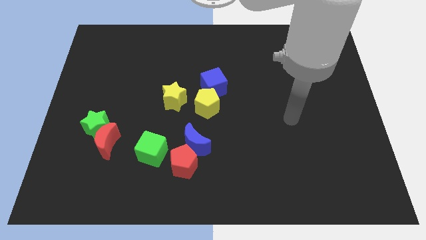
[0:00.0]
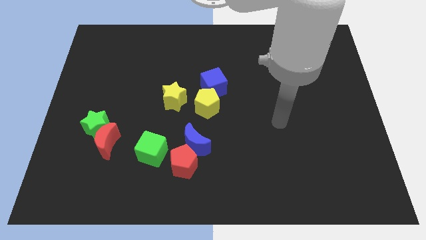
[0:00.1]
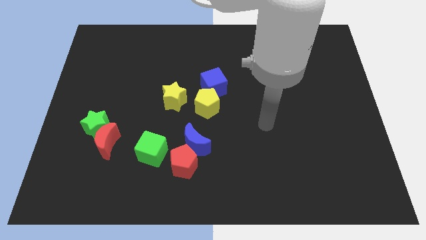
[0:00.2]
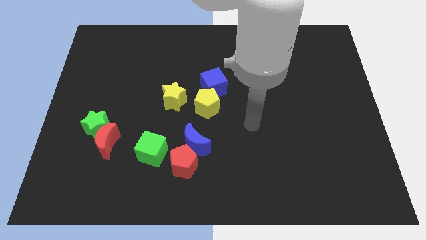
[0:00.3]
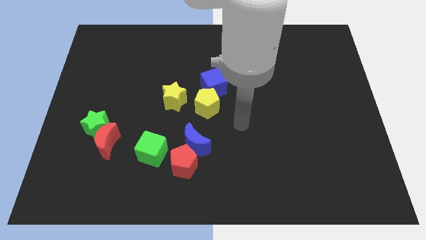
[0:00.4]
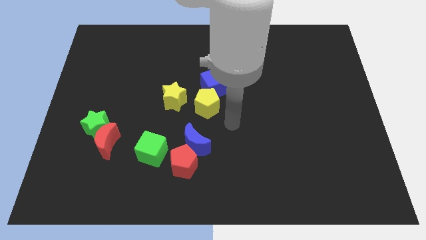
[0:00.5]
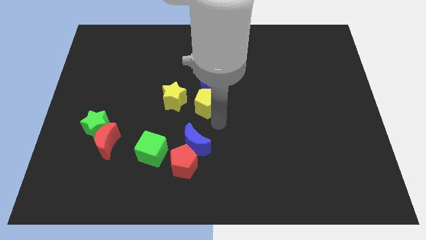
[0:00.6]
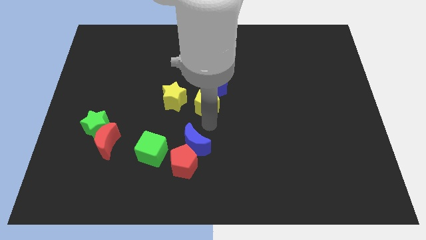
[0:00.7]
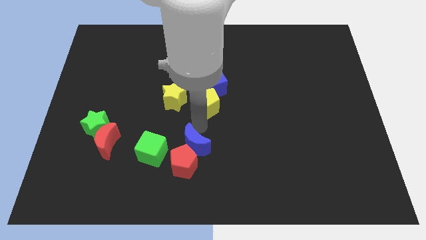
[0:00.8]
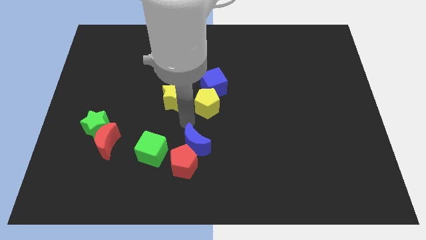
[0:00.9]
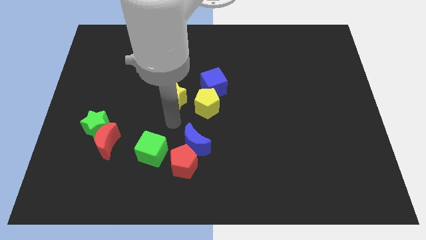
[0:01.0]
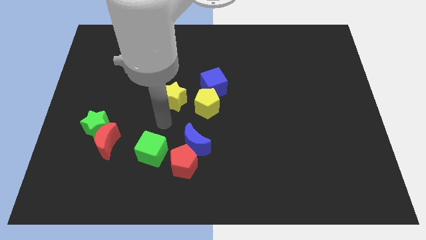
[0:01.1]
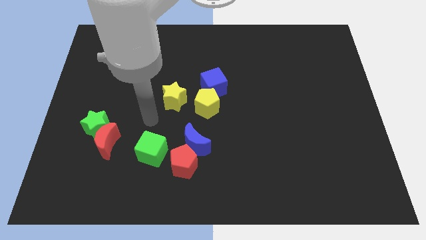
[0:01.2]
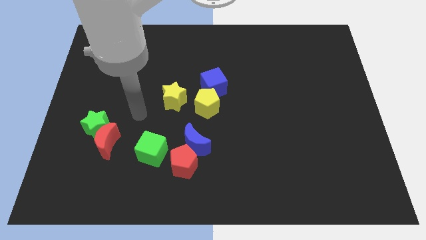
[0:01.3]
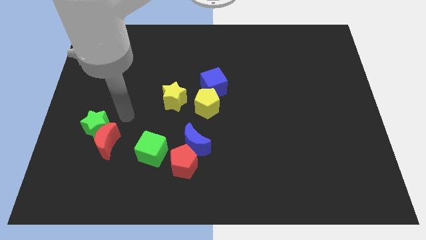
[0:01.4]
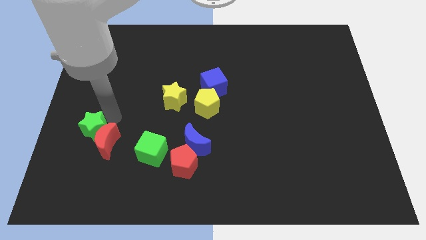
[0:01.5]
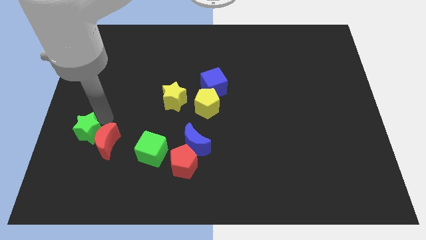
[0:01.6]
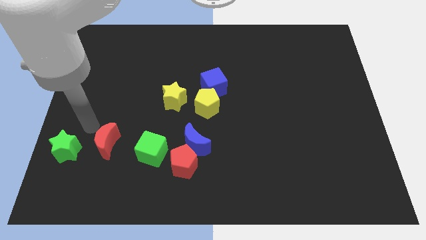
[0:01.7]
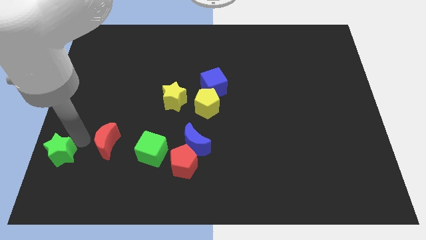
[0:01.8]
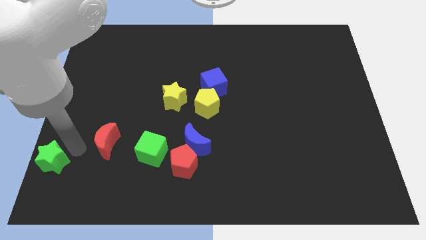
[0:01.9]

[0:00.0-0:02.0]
pull the red moon apart from the green star

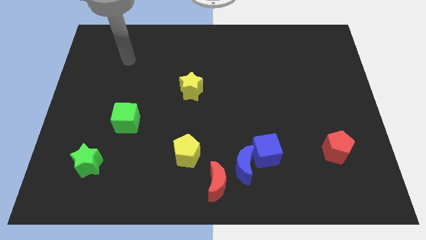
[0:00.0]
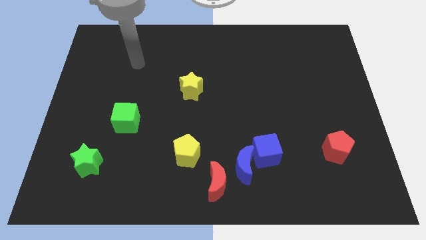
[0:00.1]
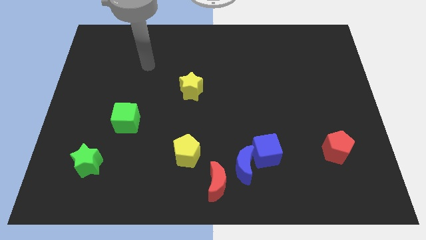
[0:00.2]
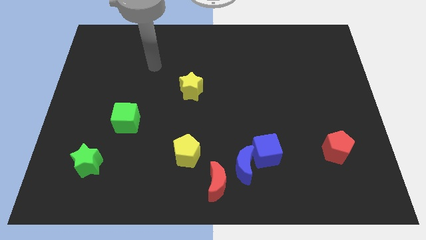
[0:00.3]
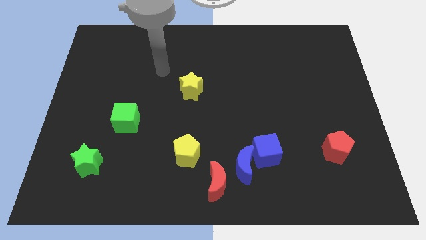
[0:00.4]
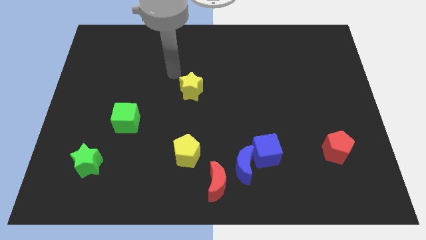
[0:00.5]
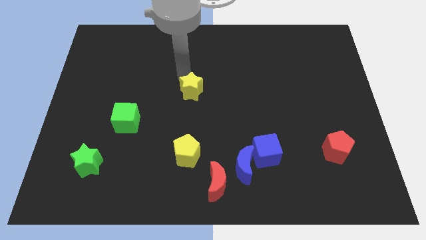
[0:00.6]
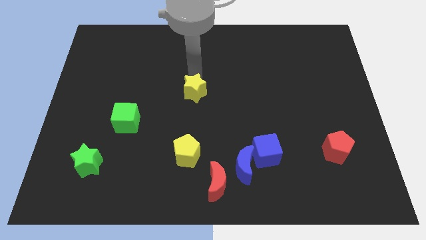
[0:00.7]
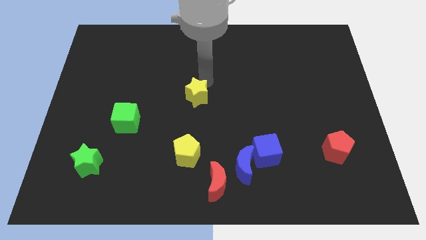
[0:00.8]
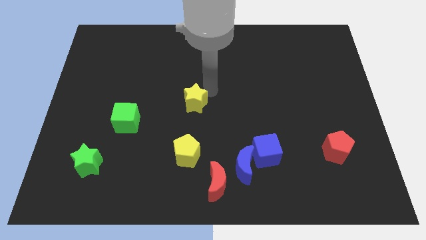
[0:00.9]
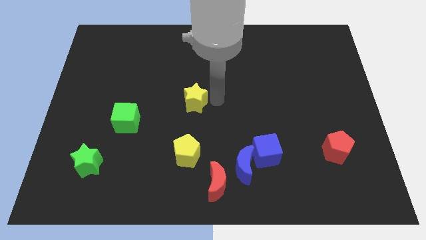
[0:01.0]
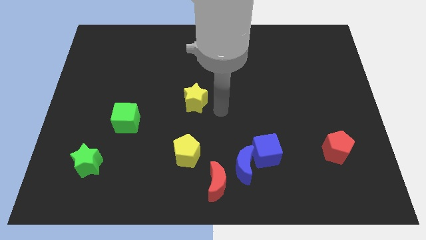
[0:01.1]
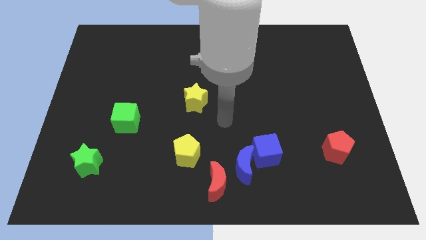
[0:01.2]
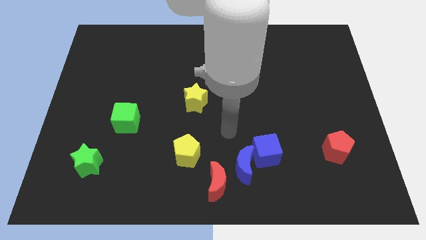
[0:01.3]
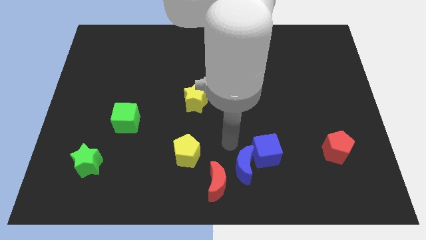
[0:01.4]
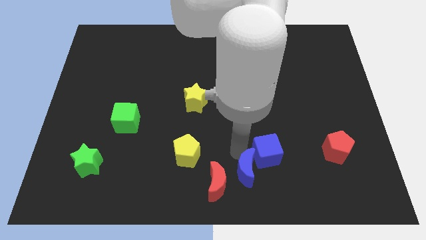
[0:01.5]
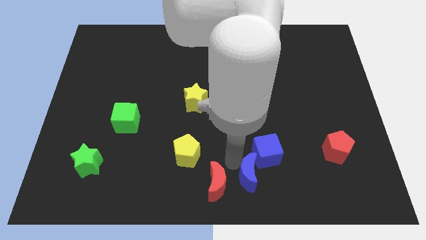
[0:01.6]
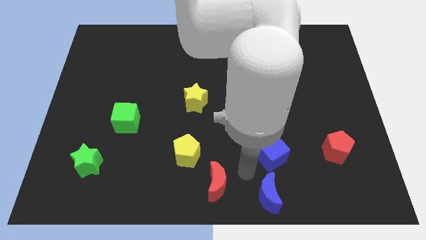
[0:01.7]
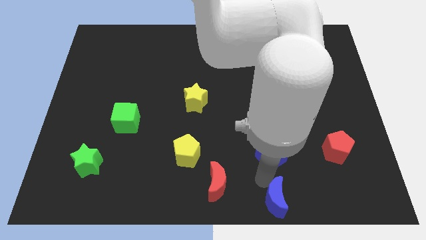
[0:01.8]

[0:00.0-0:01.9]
pull the blue cube apart from the blue moon

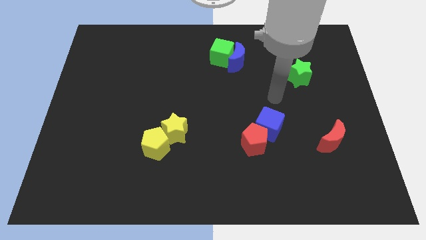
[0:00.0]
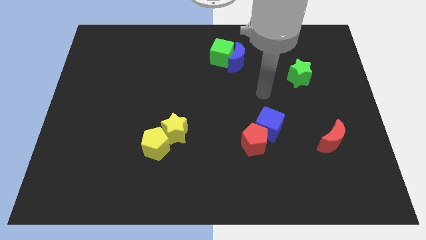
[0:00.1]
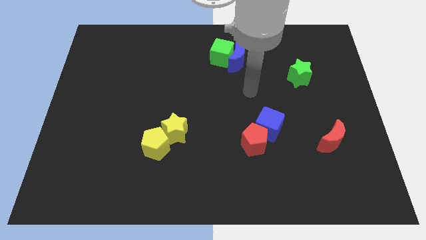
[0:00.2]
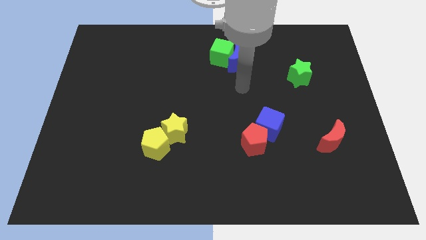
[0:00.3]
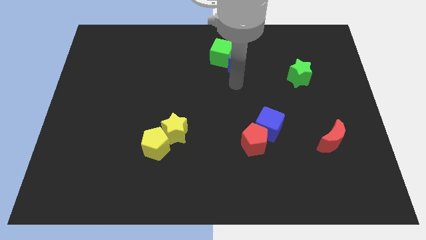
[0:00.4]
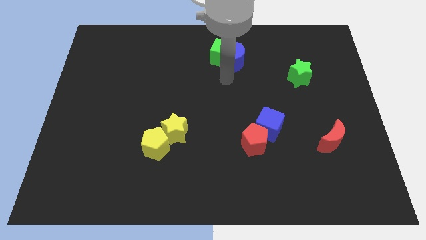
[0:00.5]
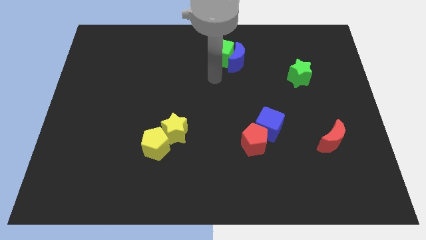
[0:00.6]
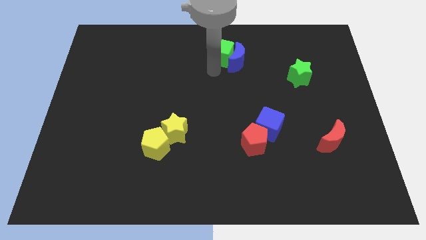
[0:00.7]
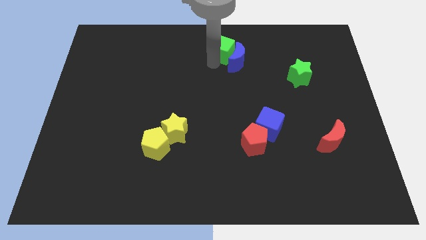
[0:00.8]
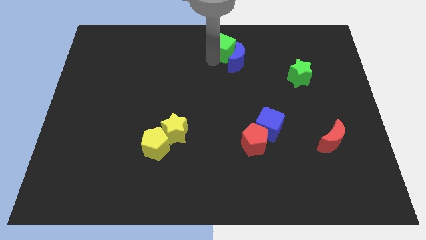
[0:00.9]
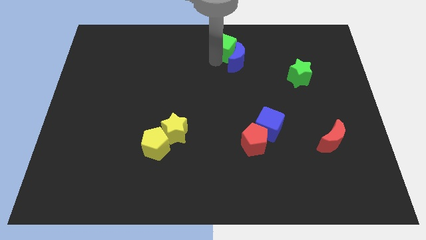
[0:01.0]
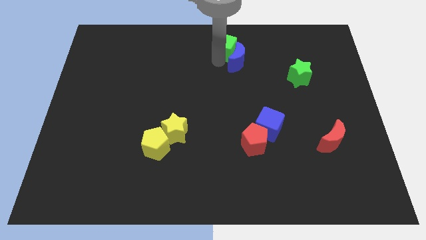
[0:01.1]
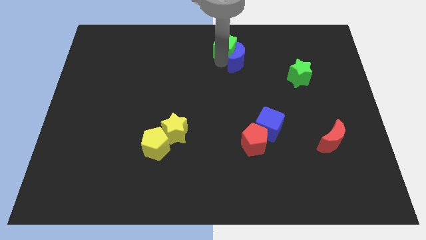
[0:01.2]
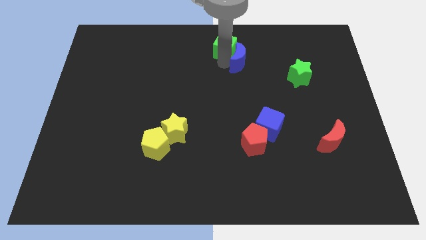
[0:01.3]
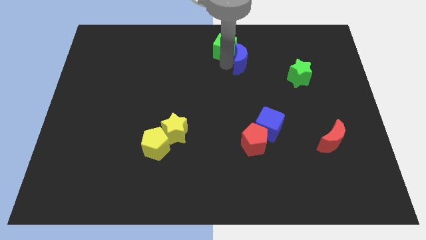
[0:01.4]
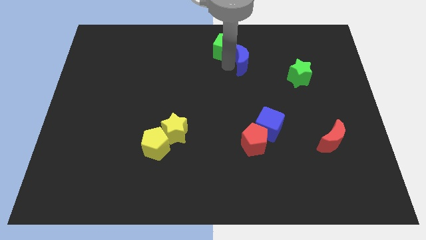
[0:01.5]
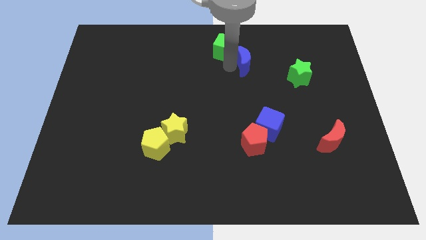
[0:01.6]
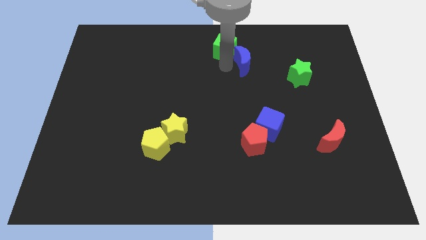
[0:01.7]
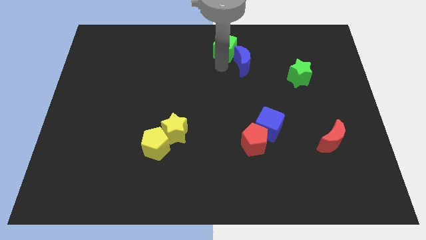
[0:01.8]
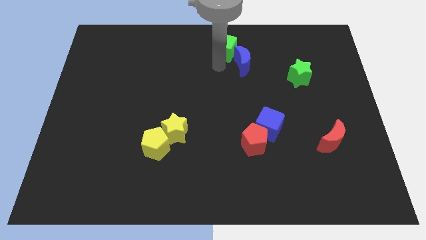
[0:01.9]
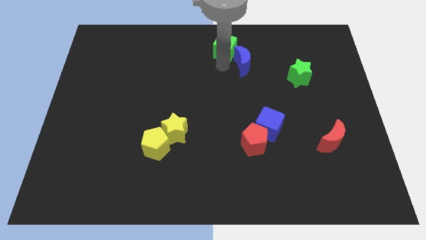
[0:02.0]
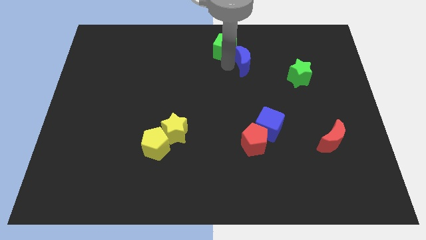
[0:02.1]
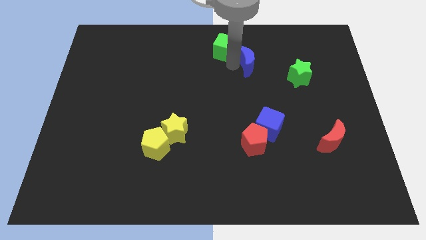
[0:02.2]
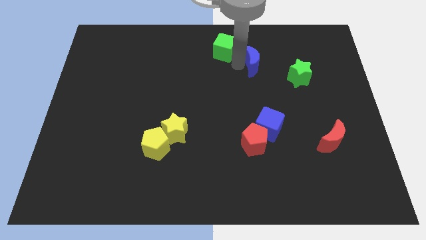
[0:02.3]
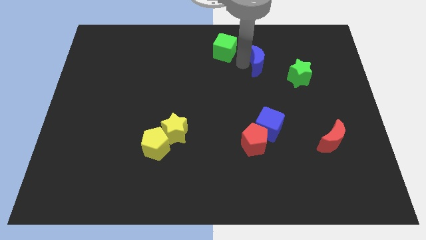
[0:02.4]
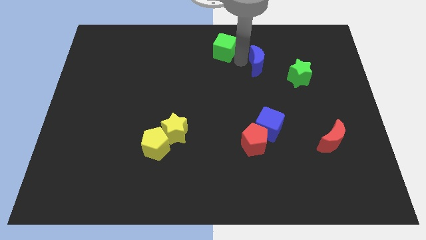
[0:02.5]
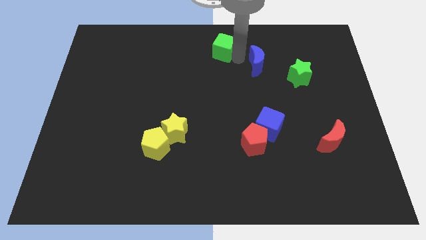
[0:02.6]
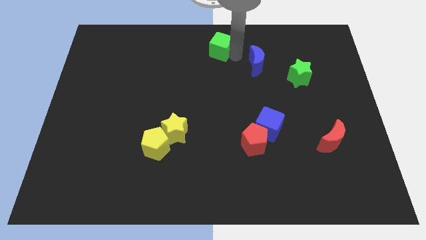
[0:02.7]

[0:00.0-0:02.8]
pull the blue moon apart from the green cube

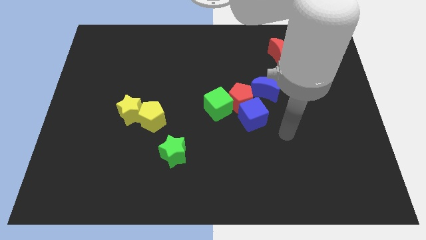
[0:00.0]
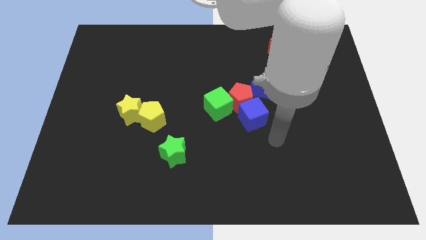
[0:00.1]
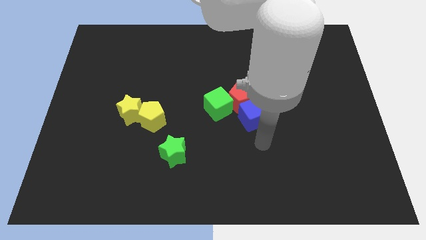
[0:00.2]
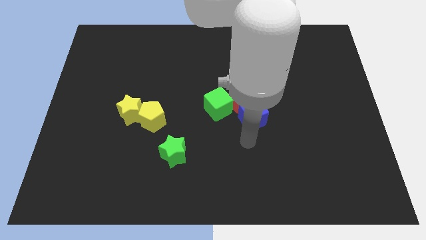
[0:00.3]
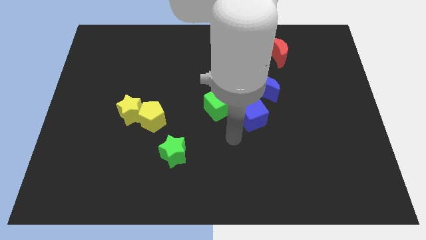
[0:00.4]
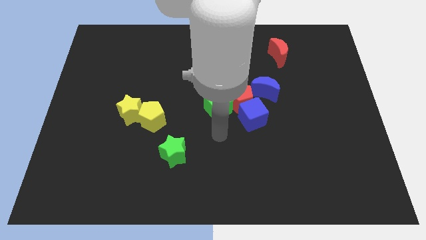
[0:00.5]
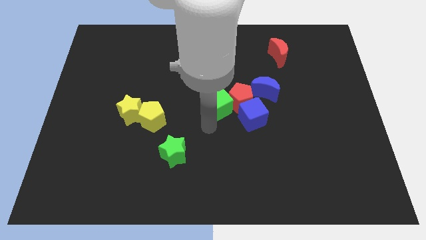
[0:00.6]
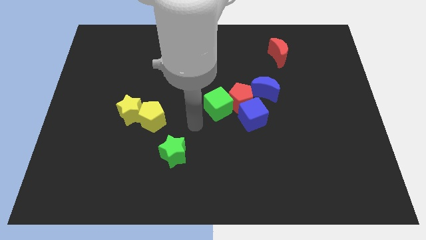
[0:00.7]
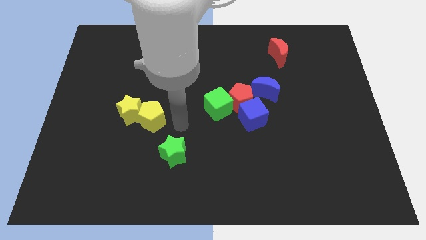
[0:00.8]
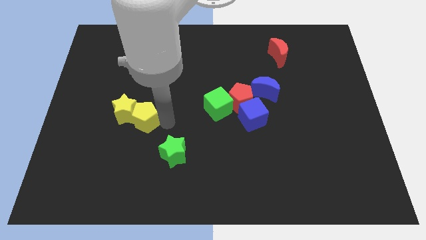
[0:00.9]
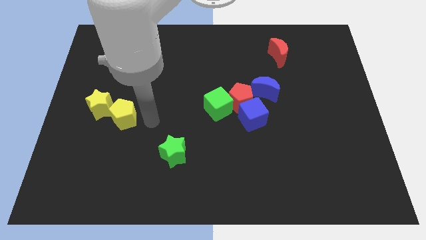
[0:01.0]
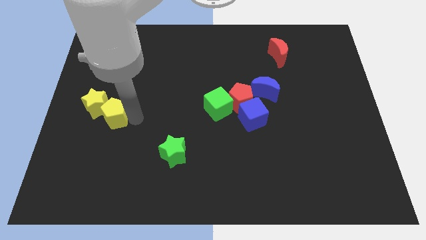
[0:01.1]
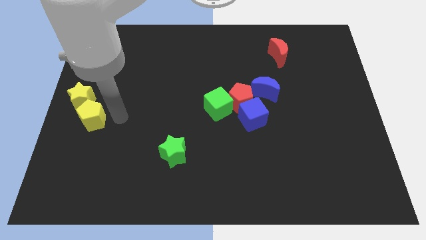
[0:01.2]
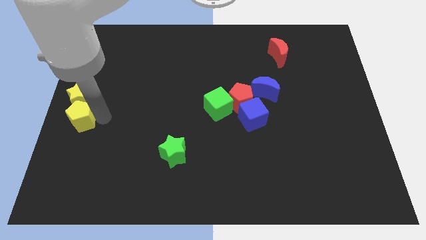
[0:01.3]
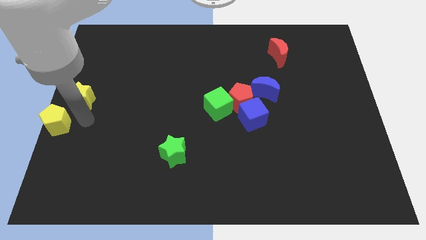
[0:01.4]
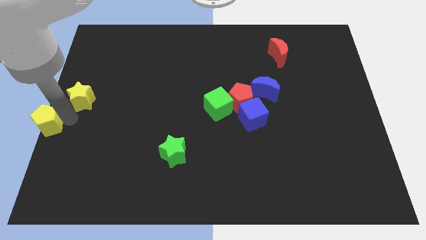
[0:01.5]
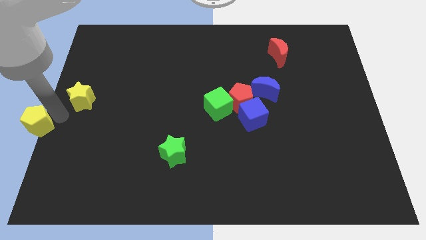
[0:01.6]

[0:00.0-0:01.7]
pull the yellow star apart from the yellow pentagon

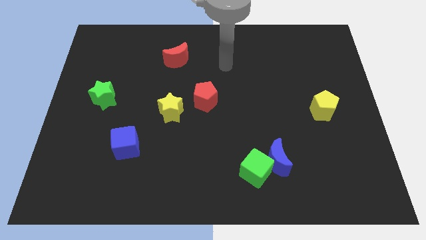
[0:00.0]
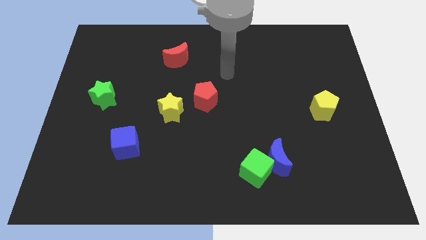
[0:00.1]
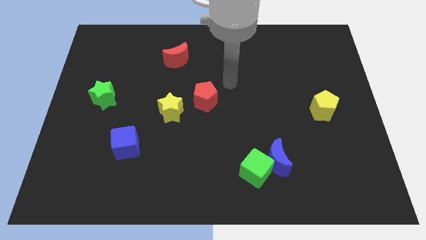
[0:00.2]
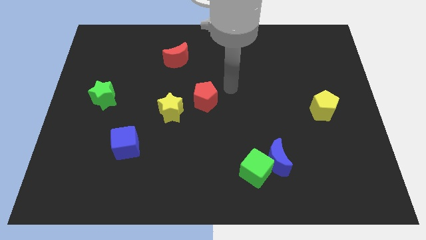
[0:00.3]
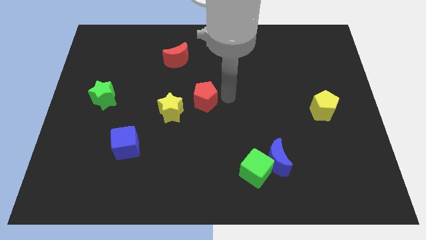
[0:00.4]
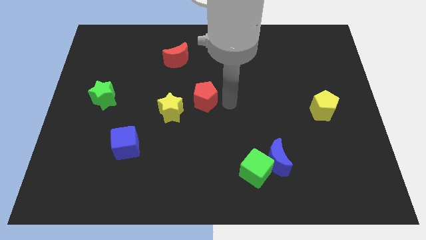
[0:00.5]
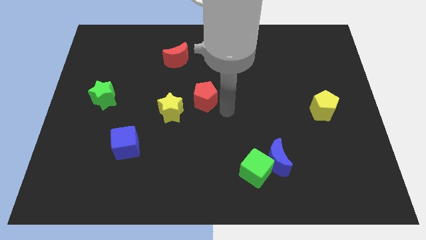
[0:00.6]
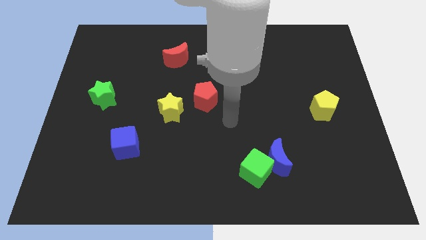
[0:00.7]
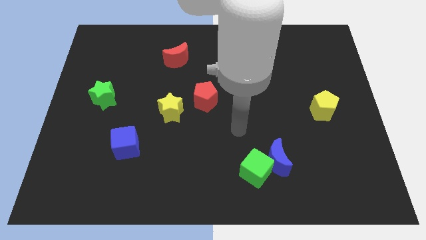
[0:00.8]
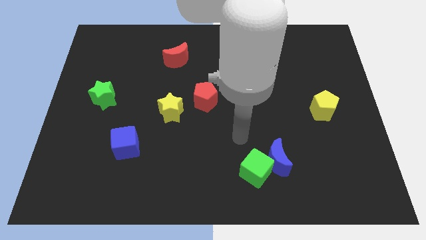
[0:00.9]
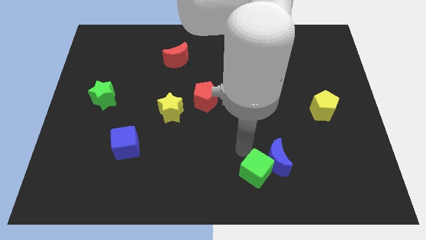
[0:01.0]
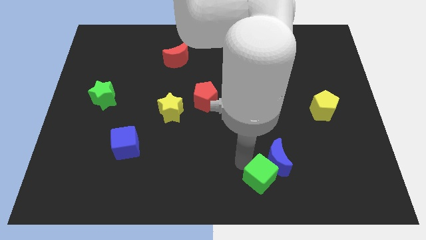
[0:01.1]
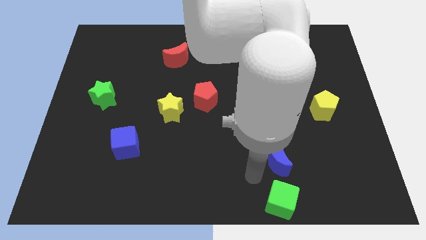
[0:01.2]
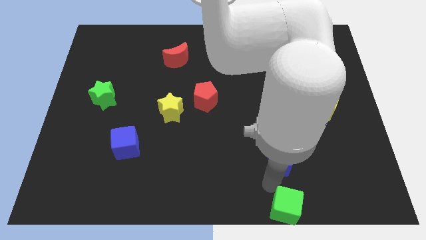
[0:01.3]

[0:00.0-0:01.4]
move the blue moon away from the green cube
